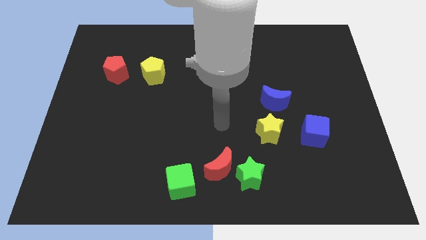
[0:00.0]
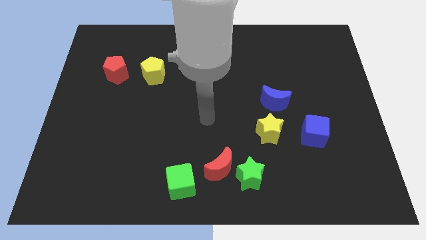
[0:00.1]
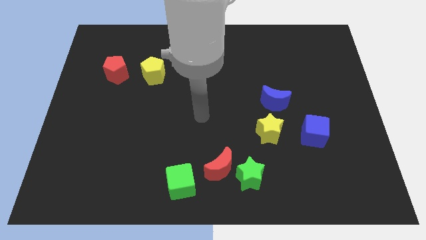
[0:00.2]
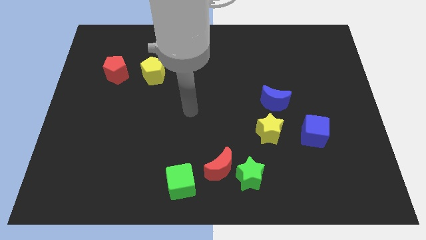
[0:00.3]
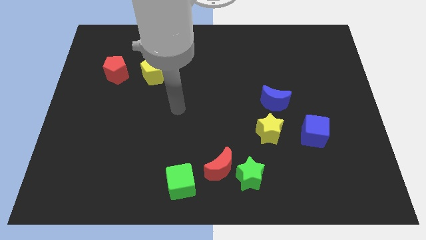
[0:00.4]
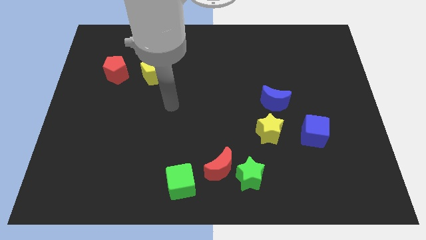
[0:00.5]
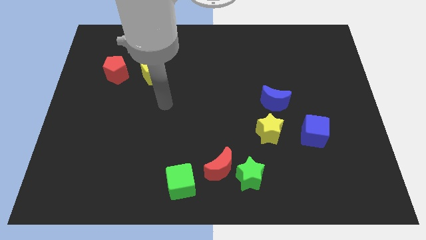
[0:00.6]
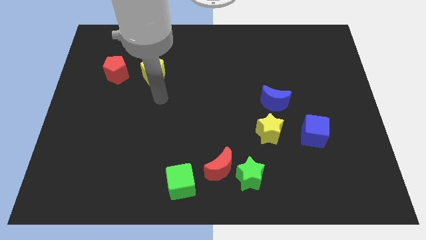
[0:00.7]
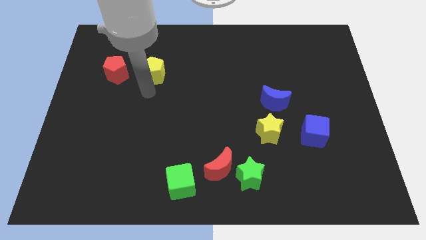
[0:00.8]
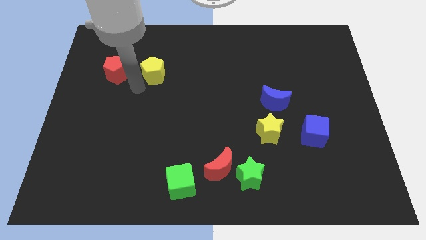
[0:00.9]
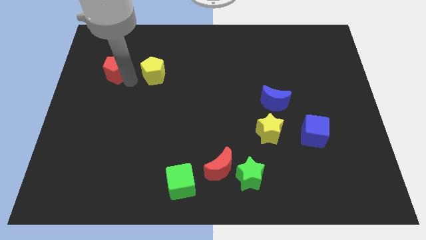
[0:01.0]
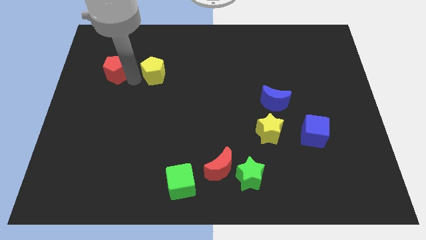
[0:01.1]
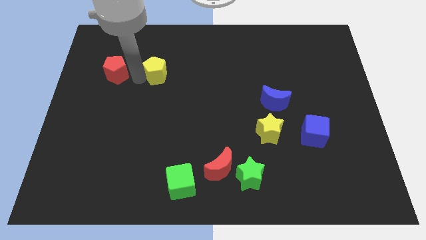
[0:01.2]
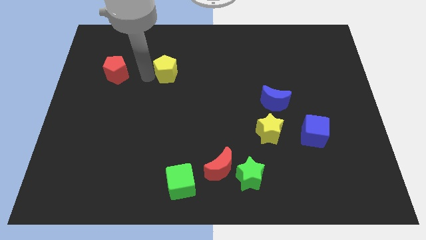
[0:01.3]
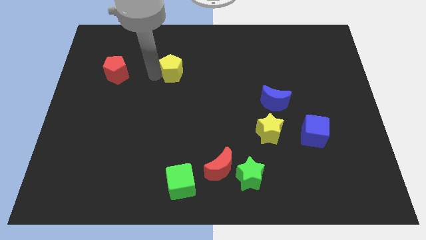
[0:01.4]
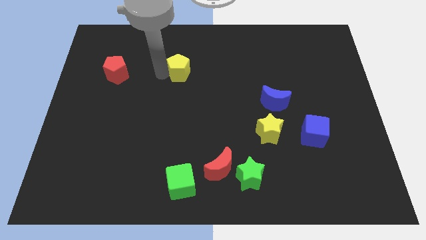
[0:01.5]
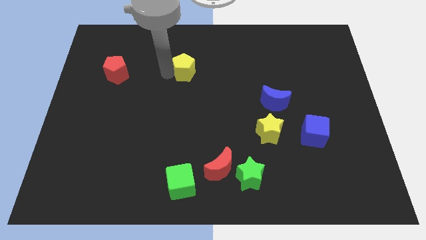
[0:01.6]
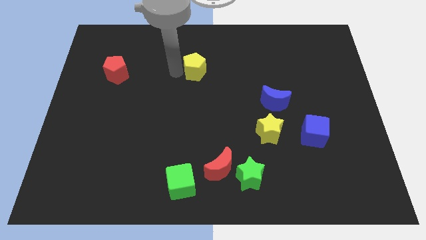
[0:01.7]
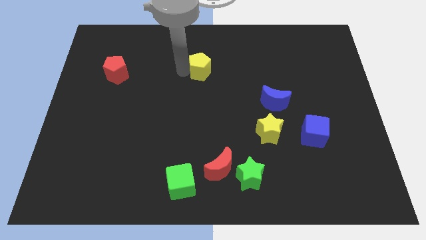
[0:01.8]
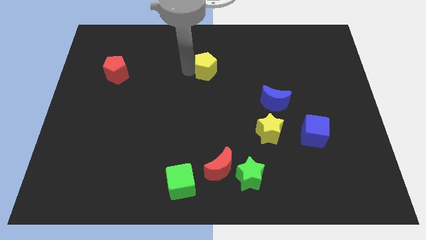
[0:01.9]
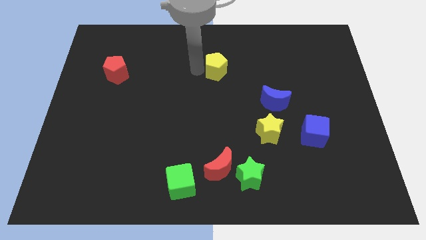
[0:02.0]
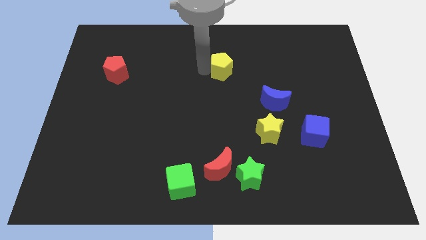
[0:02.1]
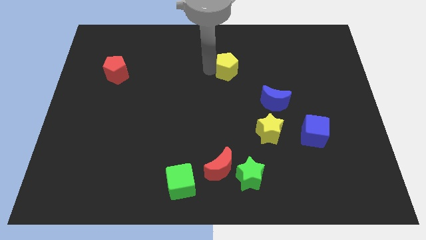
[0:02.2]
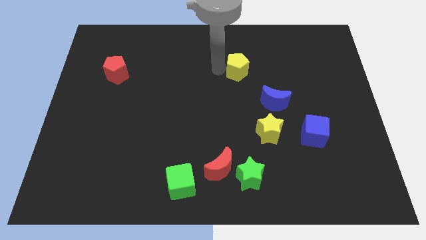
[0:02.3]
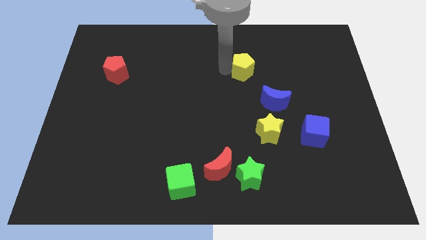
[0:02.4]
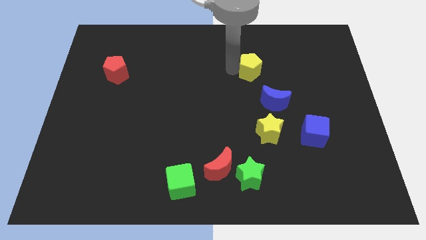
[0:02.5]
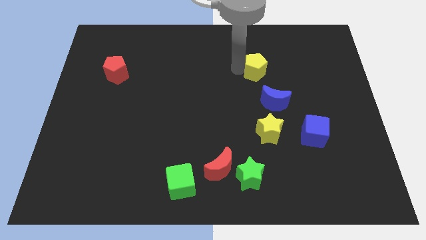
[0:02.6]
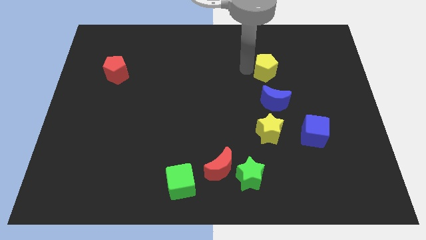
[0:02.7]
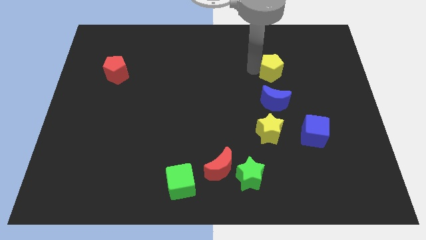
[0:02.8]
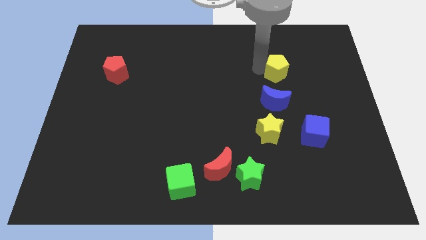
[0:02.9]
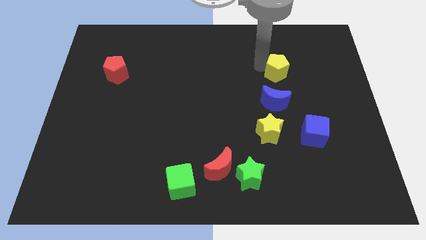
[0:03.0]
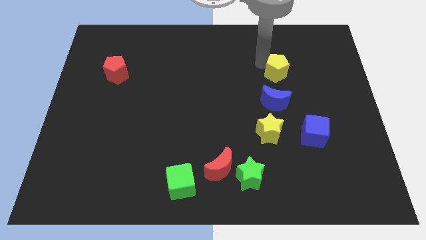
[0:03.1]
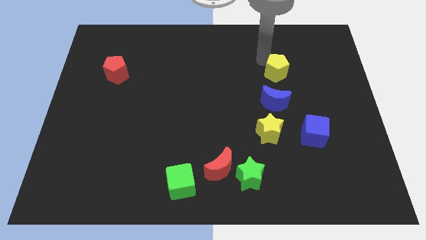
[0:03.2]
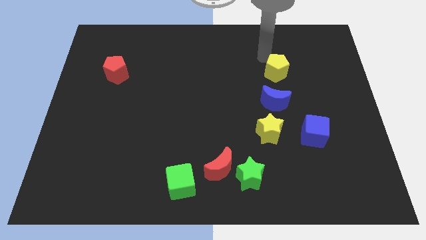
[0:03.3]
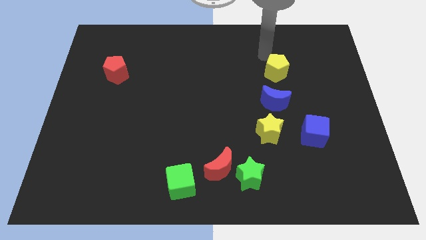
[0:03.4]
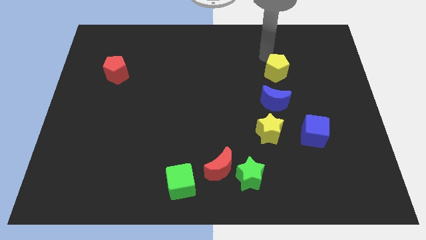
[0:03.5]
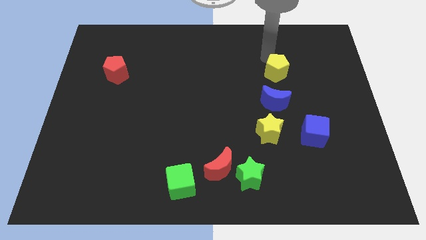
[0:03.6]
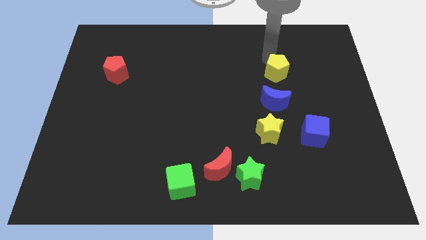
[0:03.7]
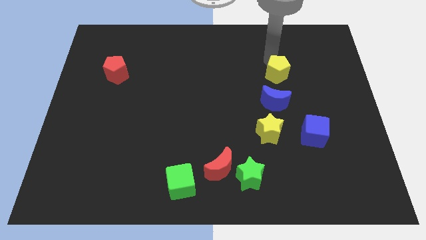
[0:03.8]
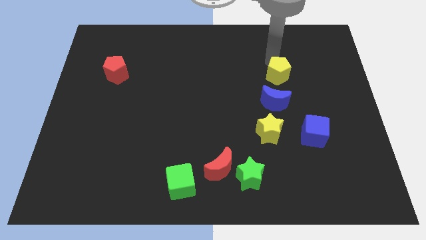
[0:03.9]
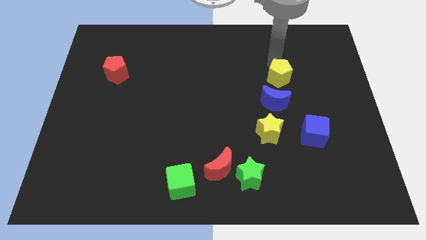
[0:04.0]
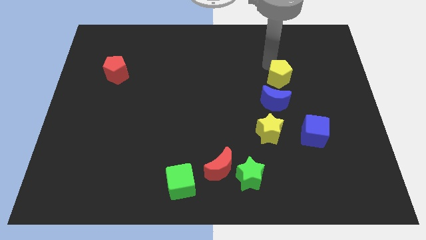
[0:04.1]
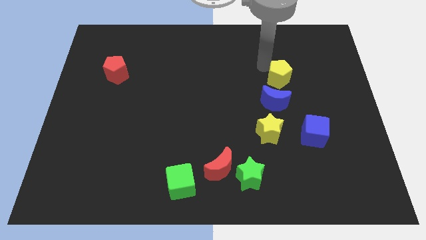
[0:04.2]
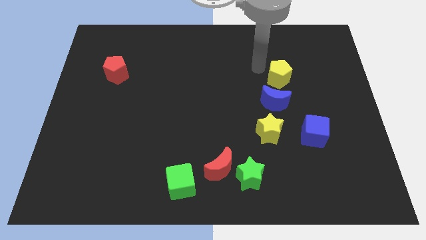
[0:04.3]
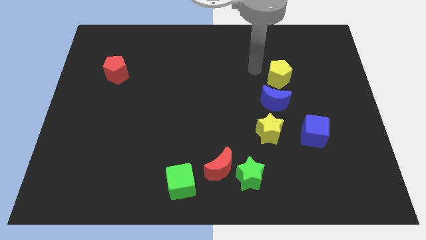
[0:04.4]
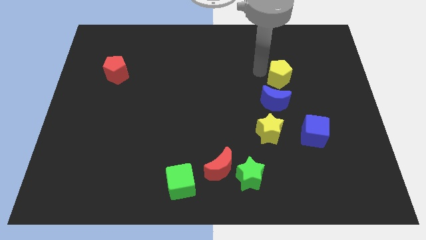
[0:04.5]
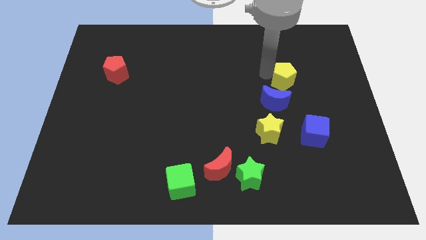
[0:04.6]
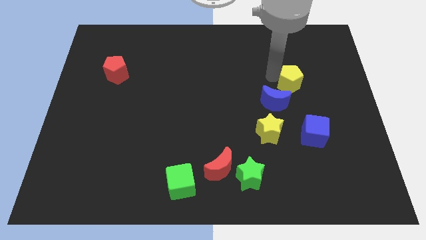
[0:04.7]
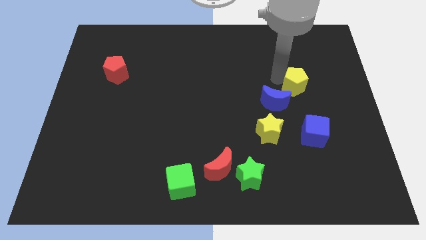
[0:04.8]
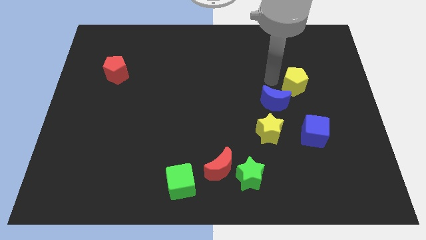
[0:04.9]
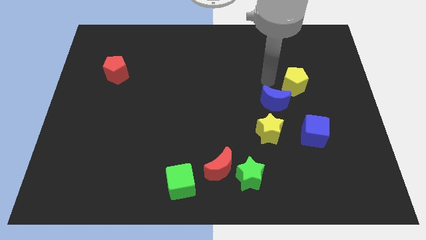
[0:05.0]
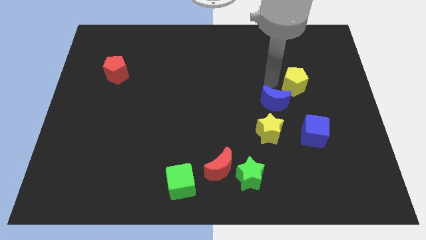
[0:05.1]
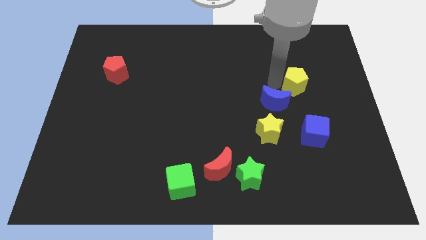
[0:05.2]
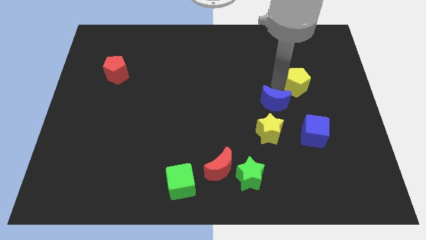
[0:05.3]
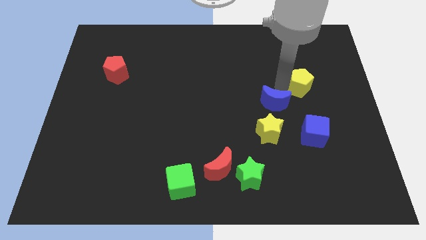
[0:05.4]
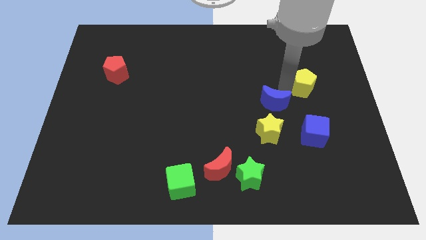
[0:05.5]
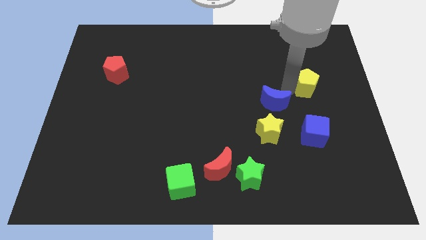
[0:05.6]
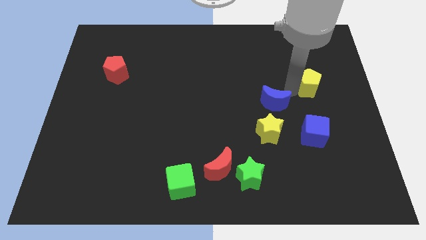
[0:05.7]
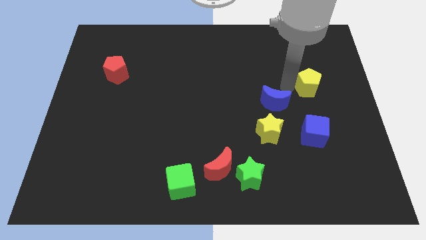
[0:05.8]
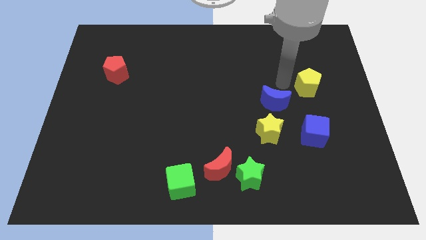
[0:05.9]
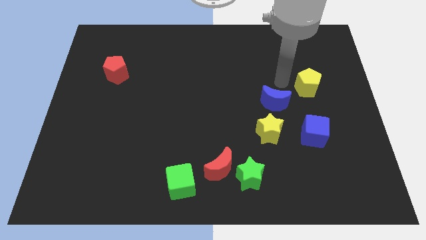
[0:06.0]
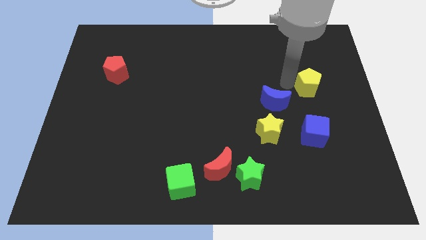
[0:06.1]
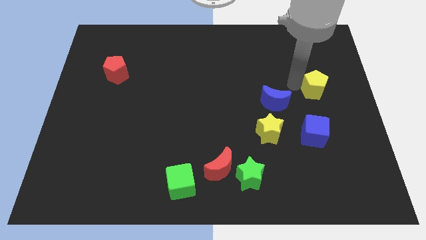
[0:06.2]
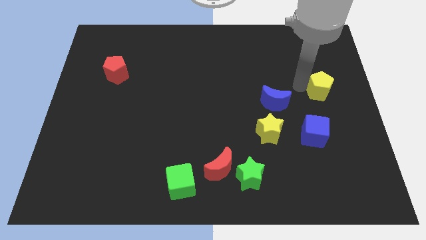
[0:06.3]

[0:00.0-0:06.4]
push the yellow pentagon to the center right
